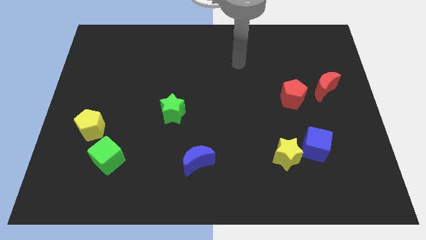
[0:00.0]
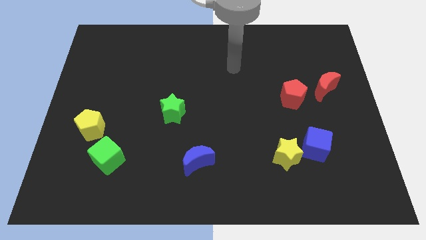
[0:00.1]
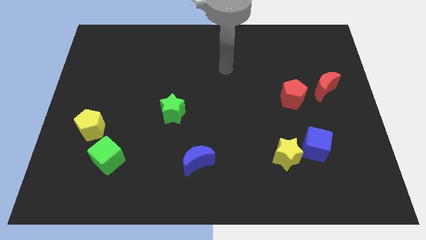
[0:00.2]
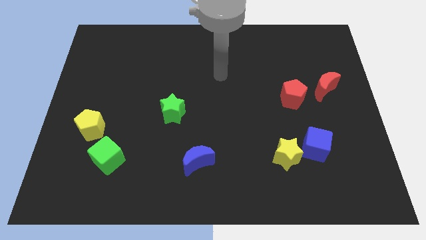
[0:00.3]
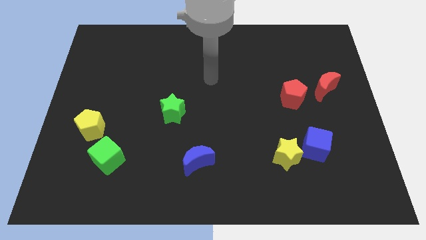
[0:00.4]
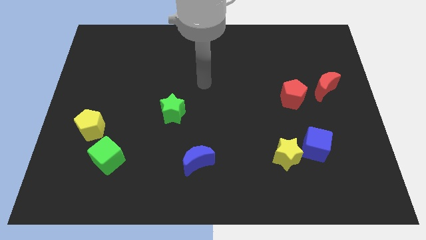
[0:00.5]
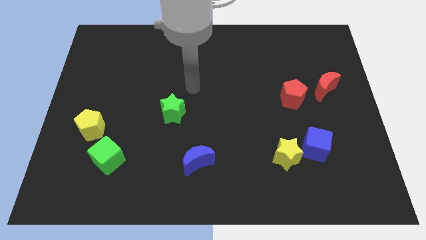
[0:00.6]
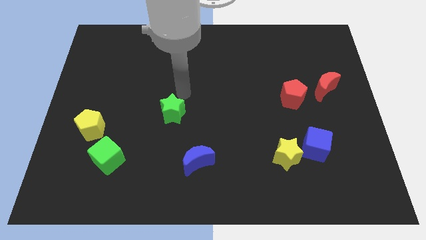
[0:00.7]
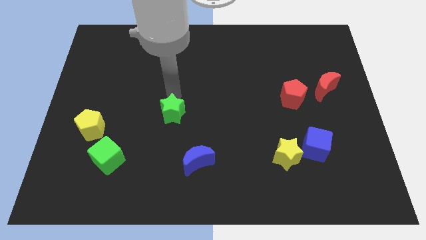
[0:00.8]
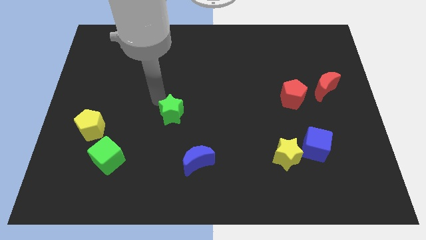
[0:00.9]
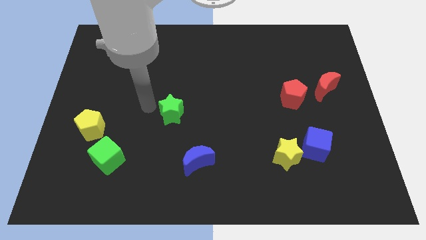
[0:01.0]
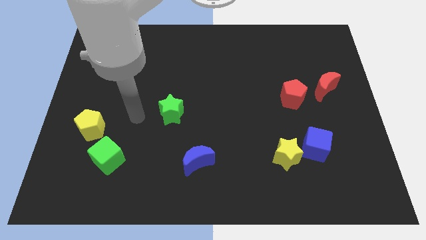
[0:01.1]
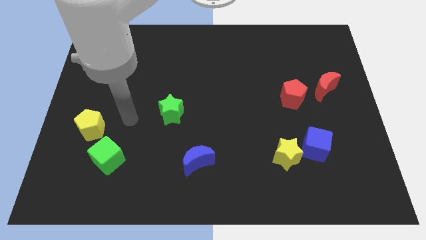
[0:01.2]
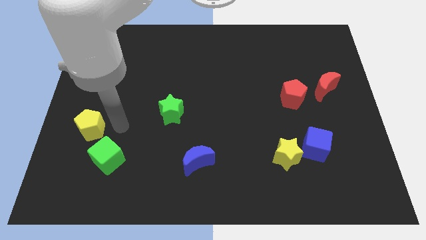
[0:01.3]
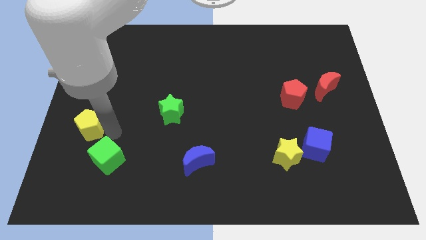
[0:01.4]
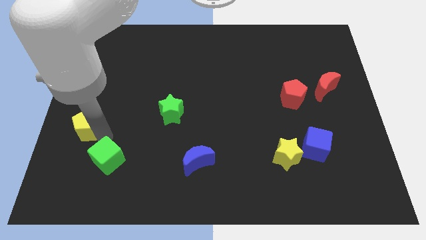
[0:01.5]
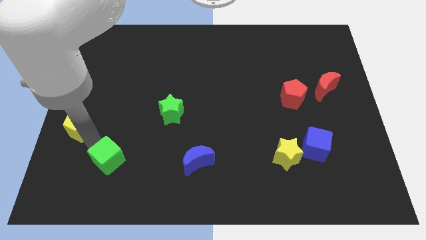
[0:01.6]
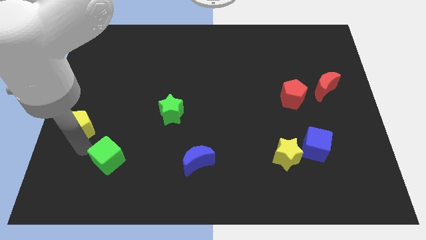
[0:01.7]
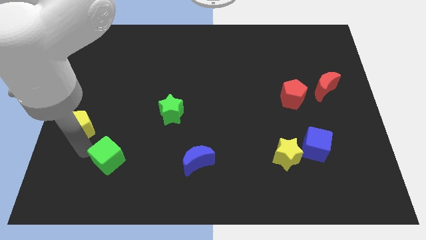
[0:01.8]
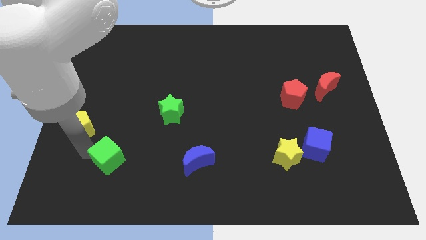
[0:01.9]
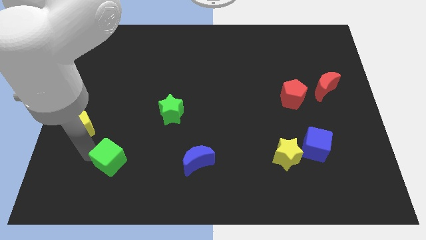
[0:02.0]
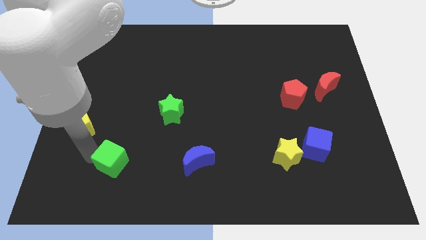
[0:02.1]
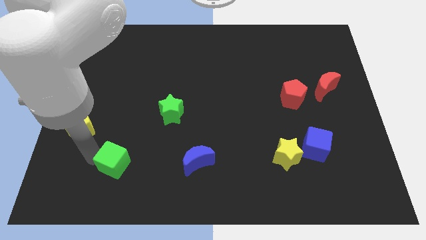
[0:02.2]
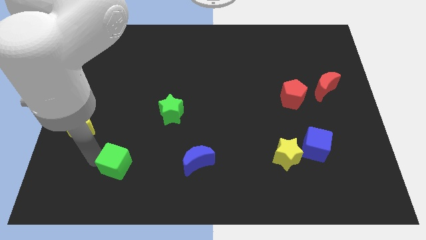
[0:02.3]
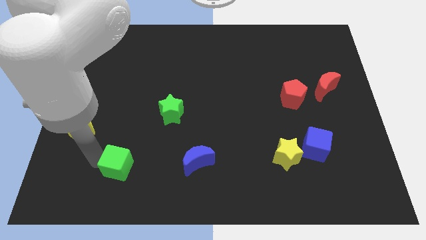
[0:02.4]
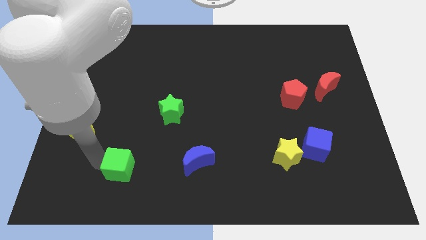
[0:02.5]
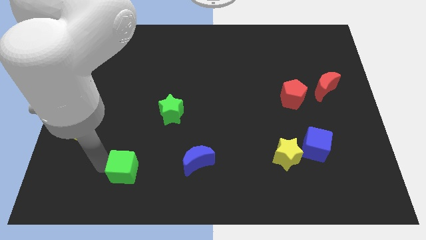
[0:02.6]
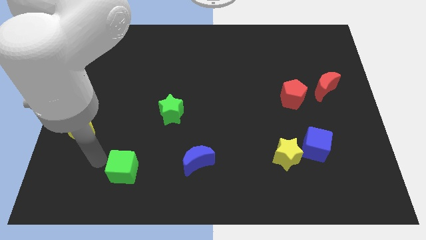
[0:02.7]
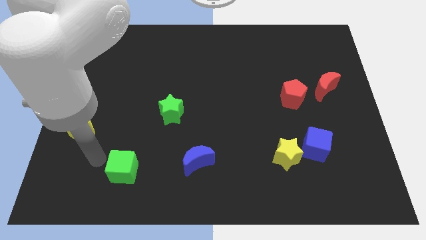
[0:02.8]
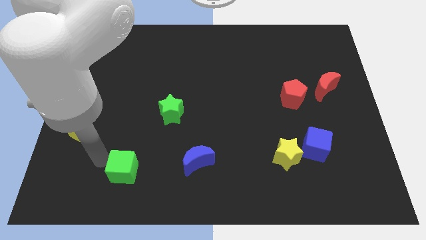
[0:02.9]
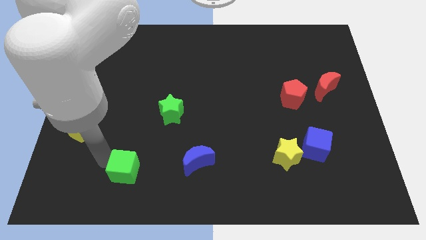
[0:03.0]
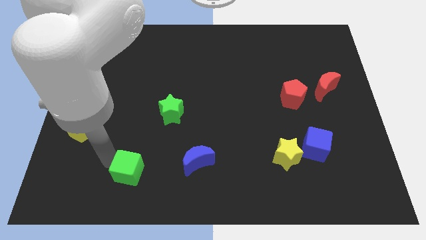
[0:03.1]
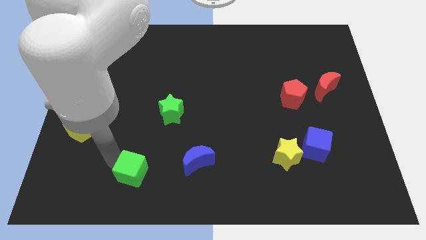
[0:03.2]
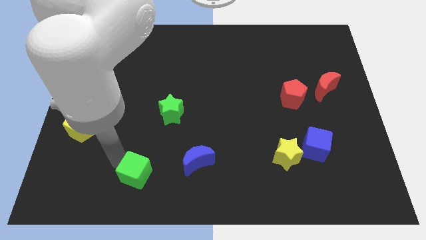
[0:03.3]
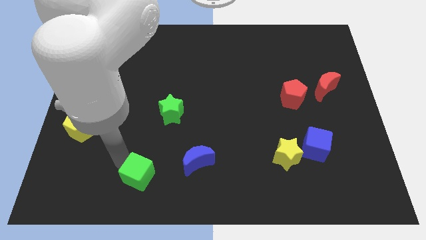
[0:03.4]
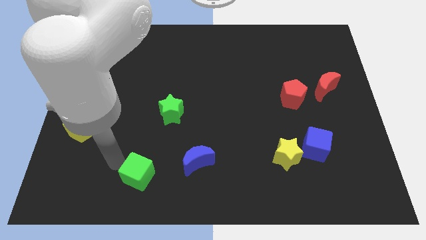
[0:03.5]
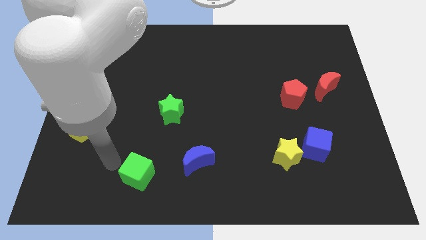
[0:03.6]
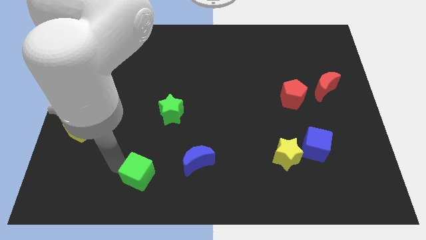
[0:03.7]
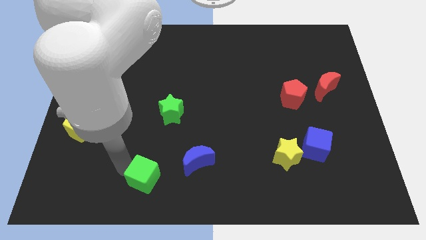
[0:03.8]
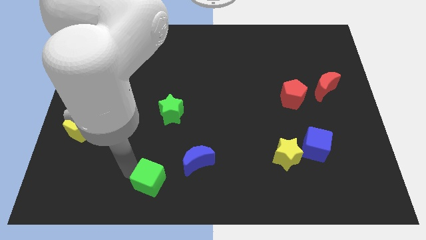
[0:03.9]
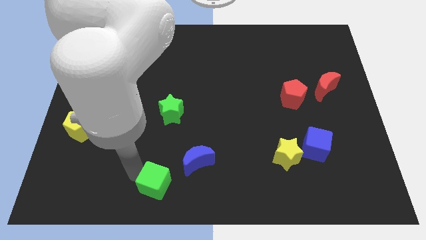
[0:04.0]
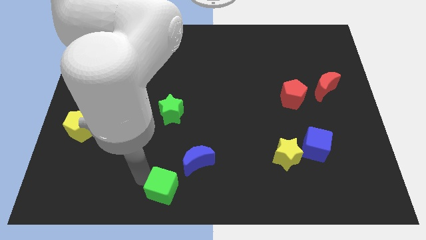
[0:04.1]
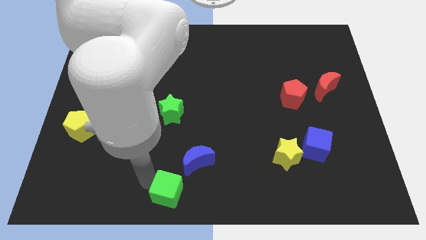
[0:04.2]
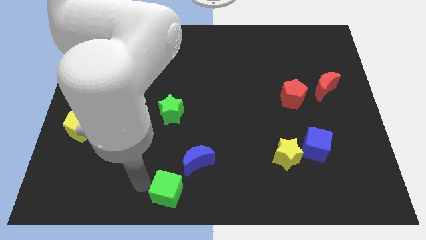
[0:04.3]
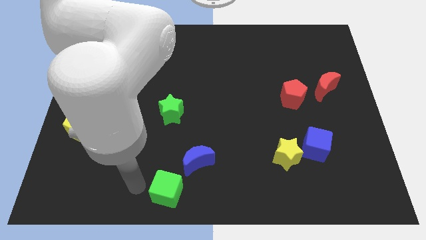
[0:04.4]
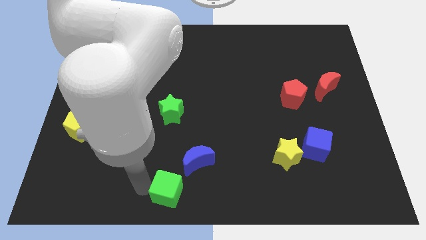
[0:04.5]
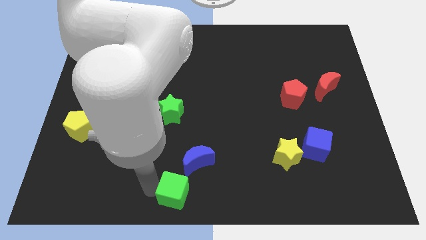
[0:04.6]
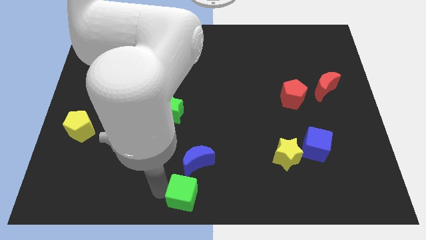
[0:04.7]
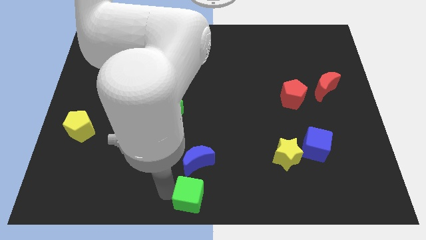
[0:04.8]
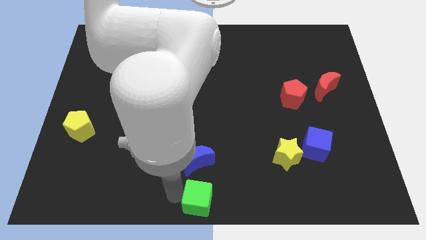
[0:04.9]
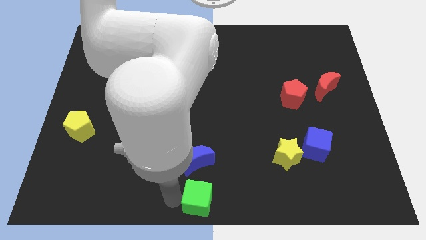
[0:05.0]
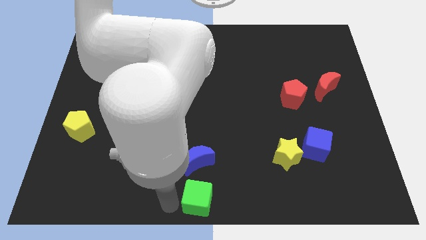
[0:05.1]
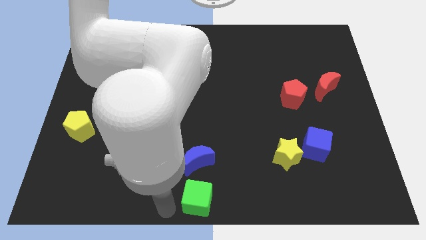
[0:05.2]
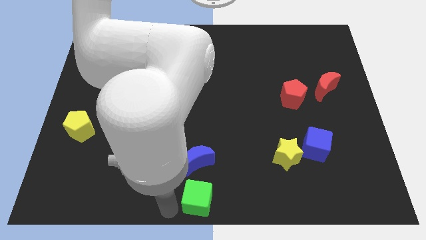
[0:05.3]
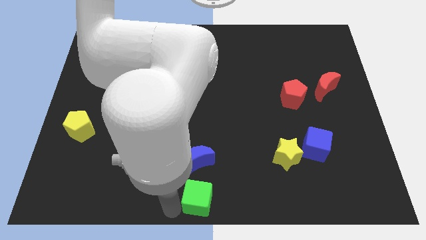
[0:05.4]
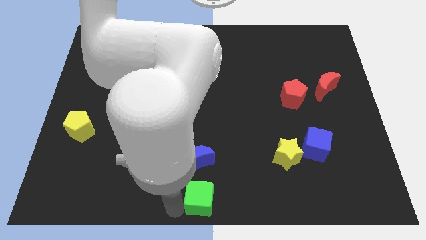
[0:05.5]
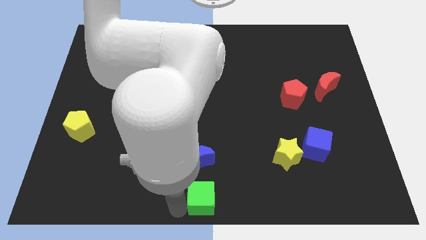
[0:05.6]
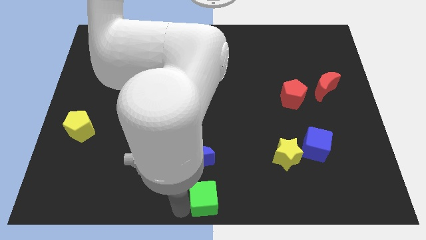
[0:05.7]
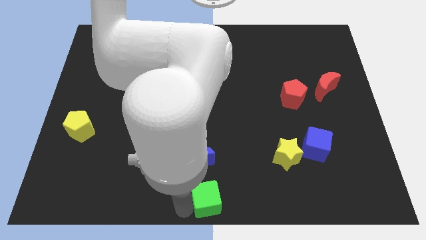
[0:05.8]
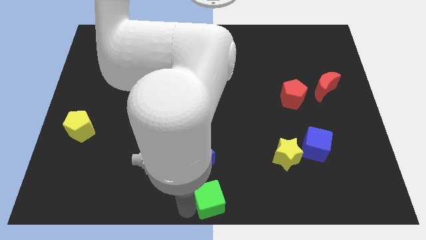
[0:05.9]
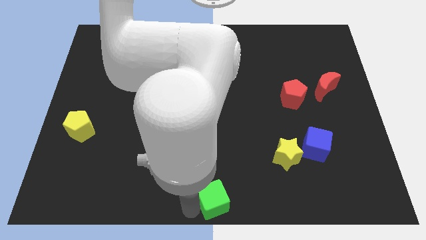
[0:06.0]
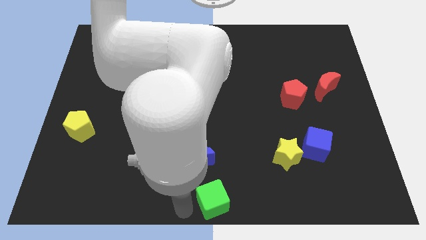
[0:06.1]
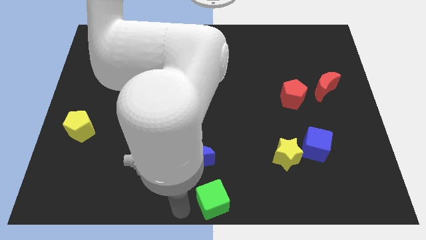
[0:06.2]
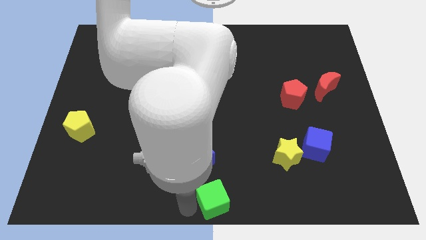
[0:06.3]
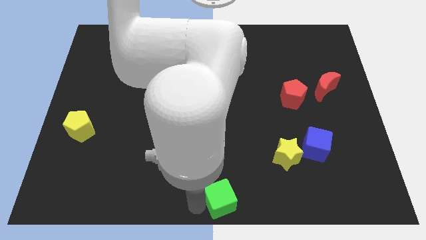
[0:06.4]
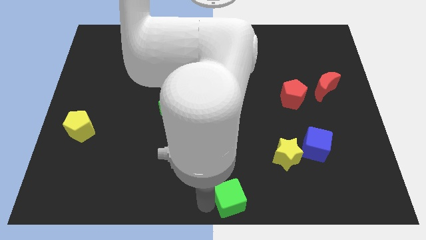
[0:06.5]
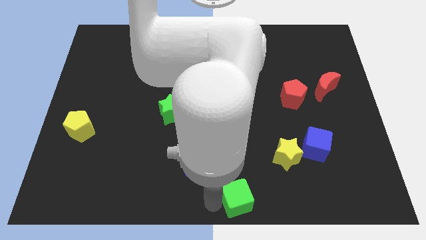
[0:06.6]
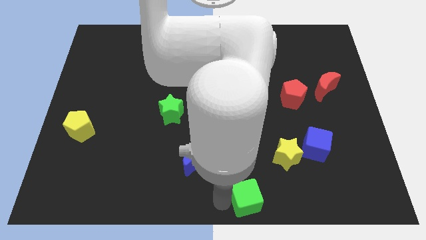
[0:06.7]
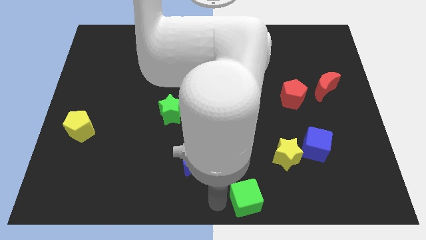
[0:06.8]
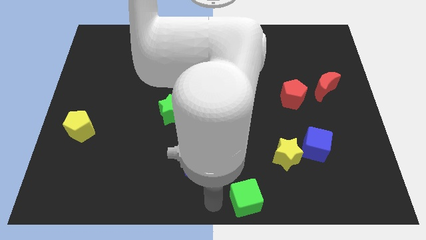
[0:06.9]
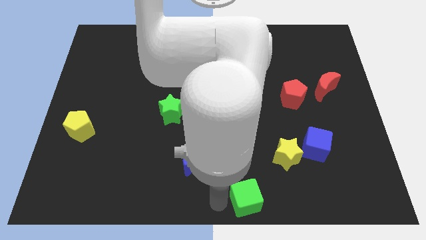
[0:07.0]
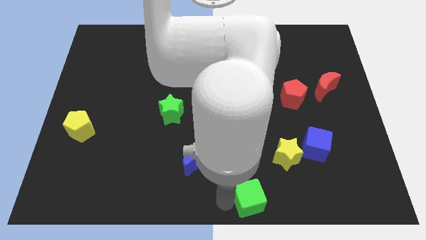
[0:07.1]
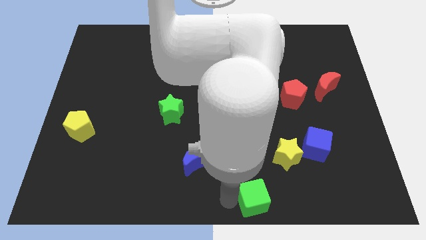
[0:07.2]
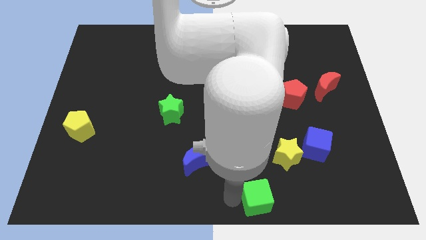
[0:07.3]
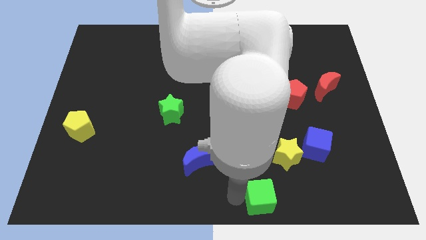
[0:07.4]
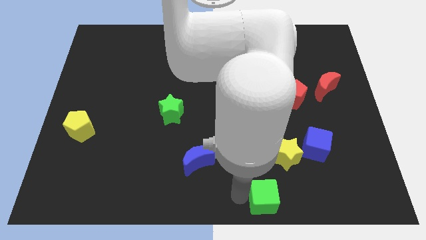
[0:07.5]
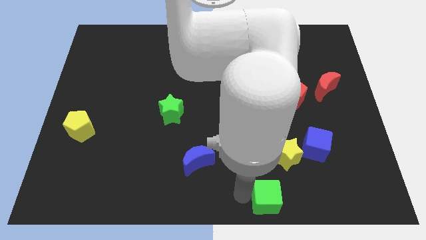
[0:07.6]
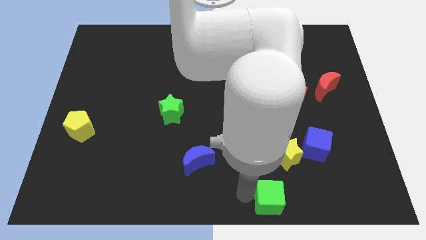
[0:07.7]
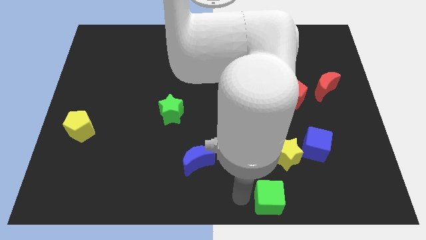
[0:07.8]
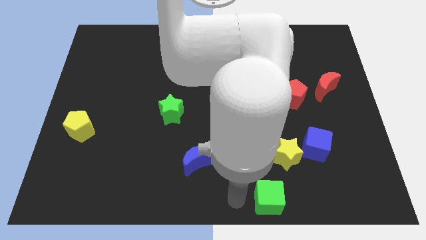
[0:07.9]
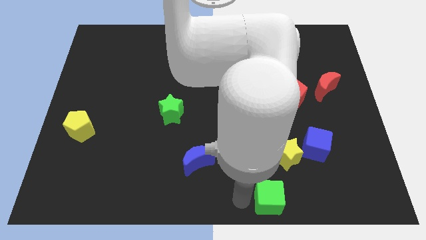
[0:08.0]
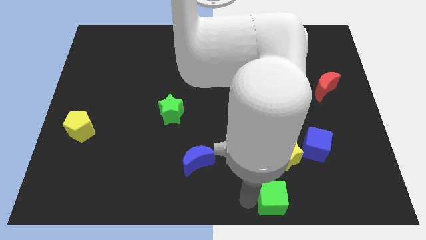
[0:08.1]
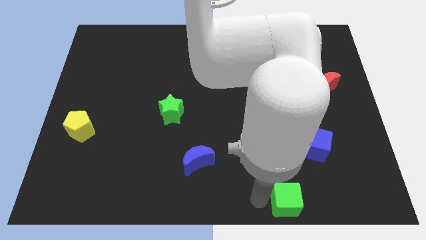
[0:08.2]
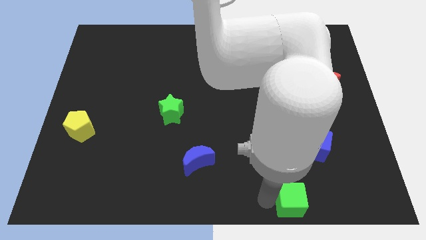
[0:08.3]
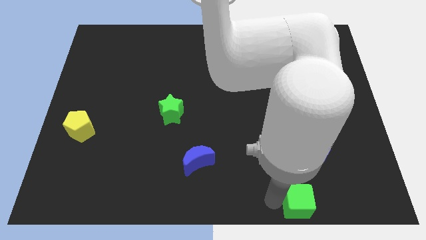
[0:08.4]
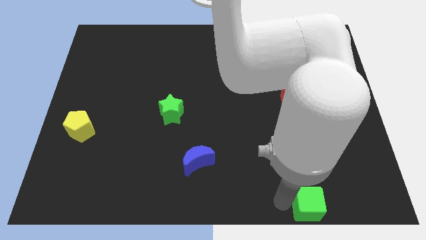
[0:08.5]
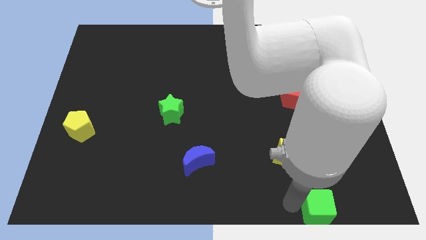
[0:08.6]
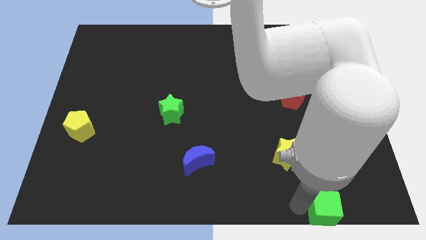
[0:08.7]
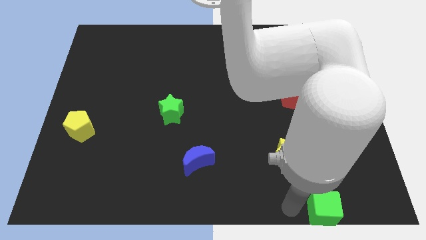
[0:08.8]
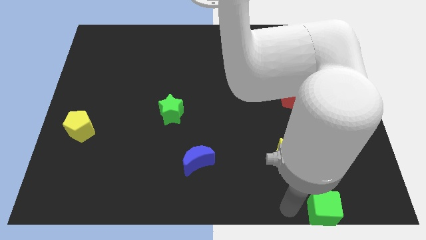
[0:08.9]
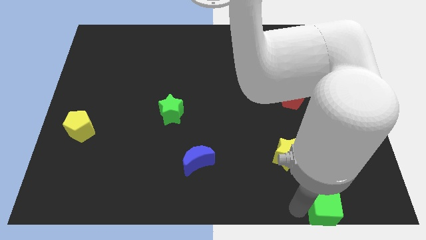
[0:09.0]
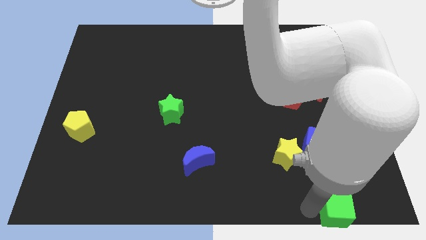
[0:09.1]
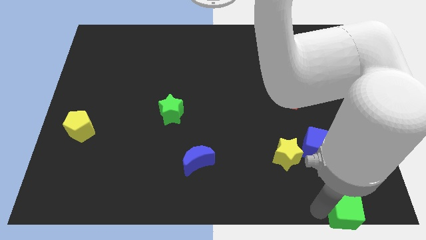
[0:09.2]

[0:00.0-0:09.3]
slide the green cube to the bottom right corner
